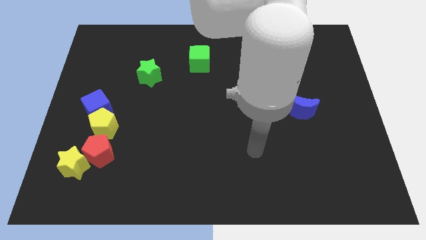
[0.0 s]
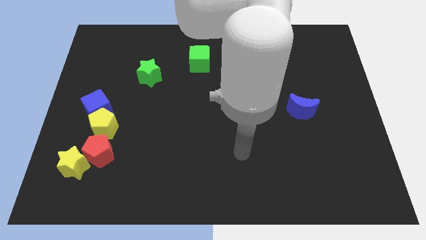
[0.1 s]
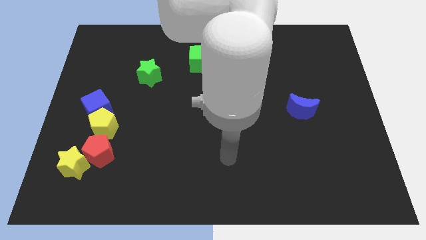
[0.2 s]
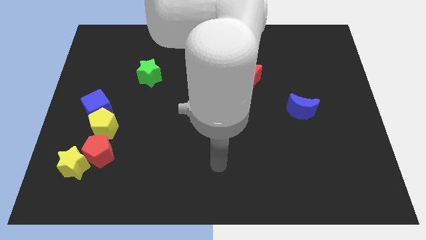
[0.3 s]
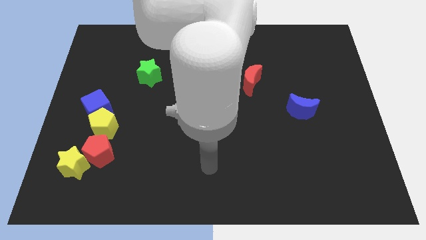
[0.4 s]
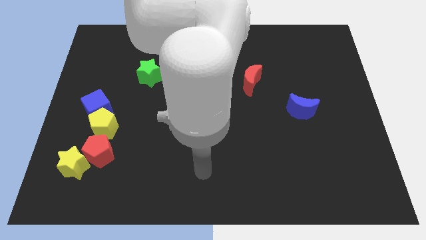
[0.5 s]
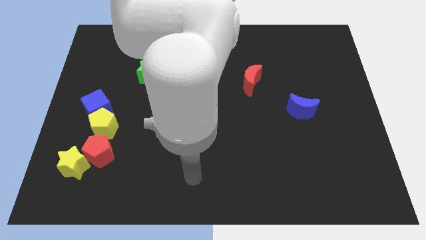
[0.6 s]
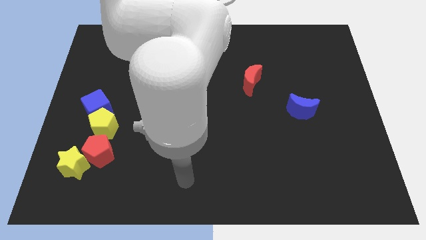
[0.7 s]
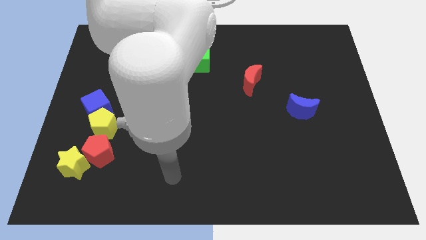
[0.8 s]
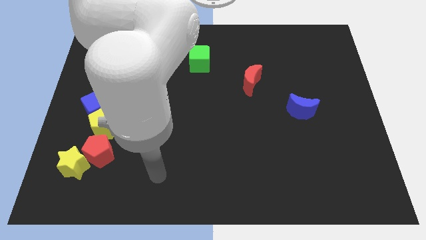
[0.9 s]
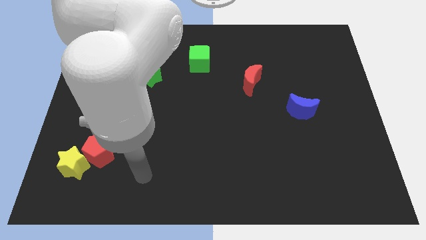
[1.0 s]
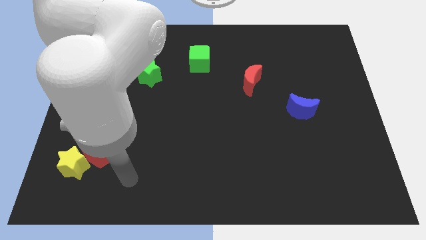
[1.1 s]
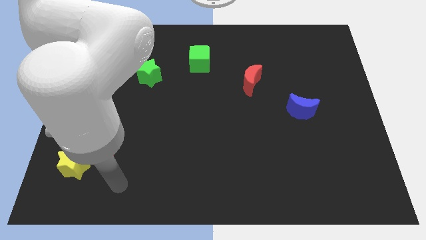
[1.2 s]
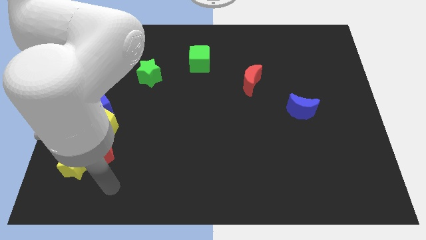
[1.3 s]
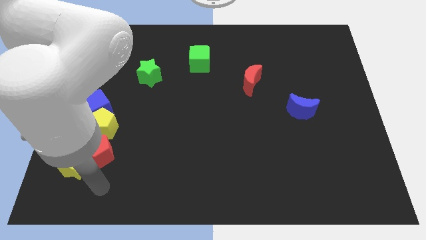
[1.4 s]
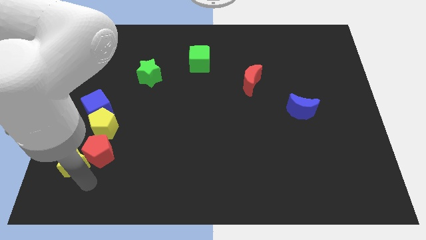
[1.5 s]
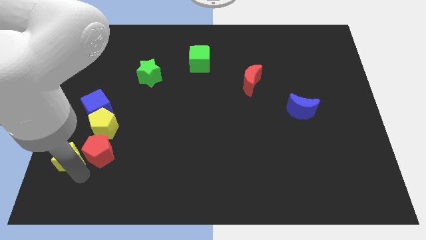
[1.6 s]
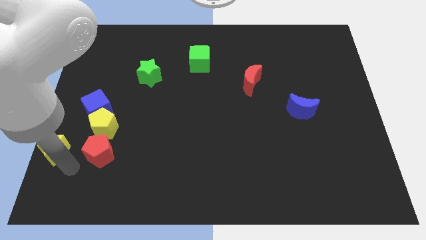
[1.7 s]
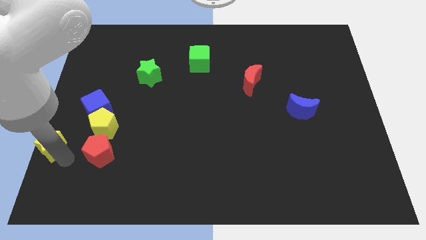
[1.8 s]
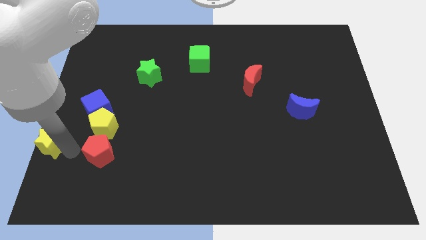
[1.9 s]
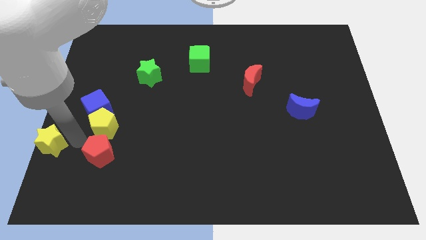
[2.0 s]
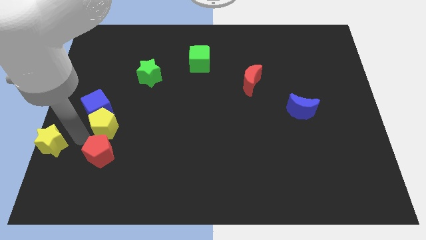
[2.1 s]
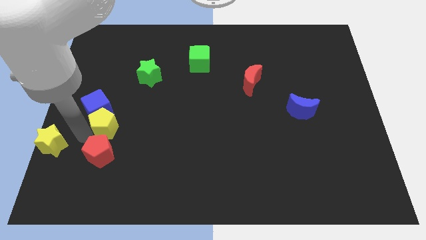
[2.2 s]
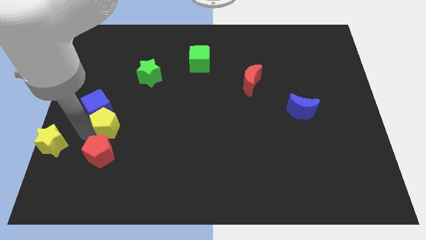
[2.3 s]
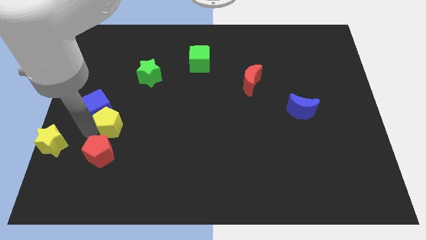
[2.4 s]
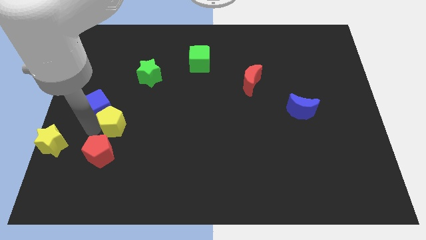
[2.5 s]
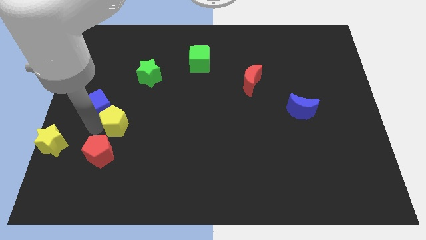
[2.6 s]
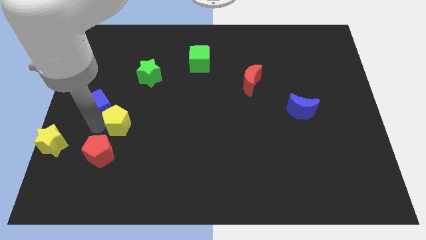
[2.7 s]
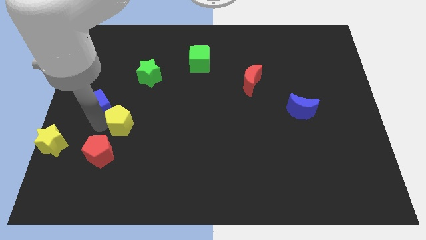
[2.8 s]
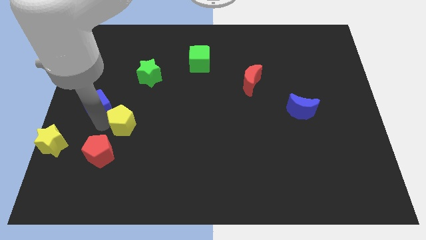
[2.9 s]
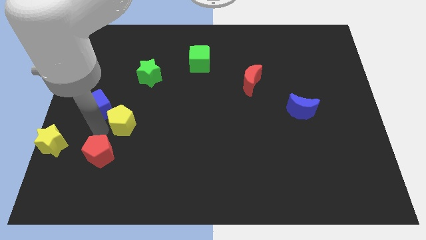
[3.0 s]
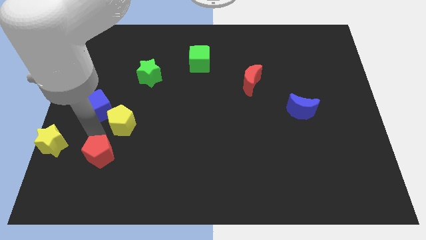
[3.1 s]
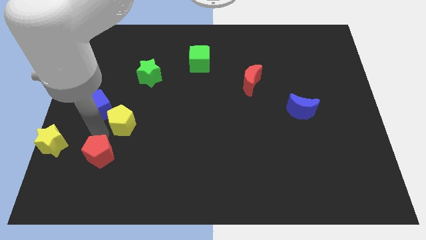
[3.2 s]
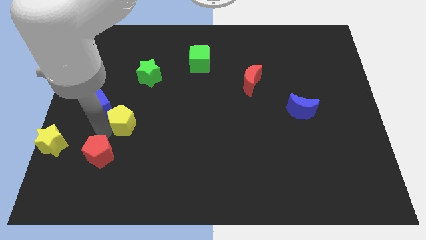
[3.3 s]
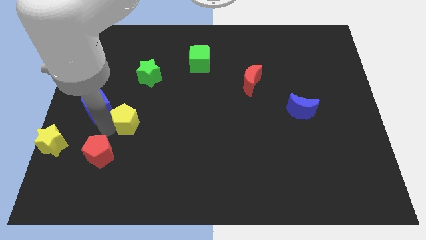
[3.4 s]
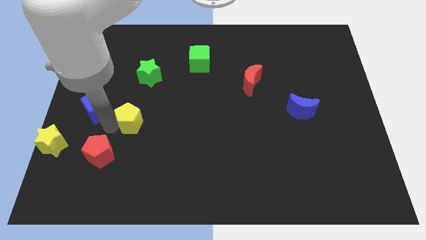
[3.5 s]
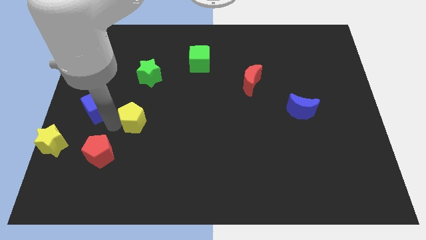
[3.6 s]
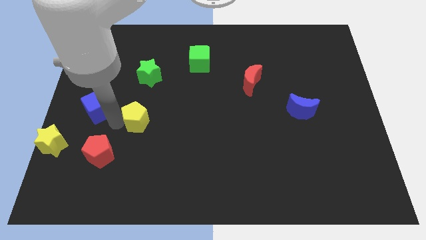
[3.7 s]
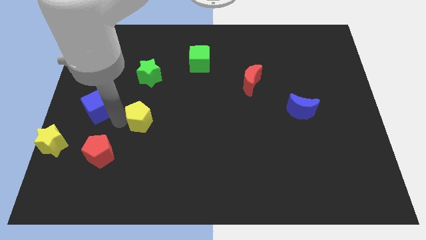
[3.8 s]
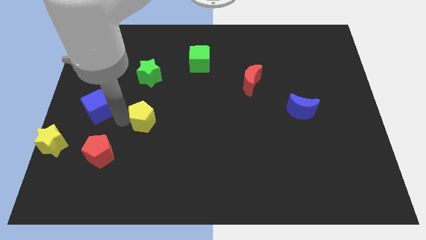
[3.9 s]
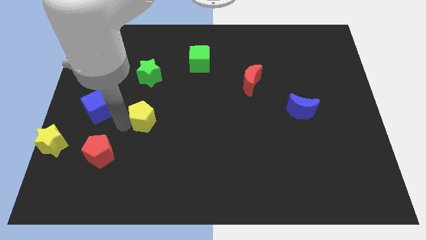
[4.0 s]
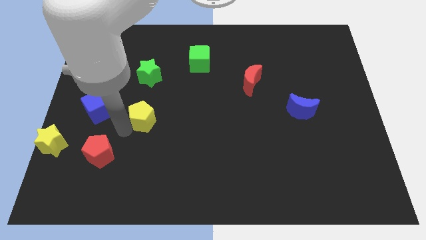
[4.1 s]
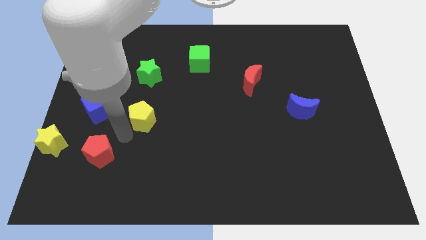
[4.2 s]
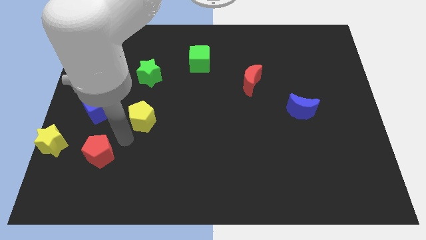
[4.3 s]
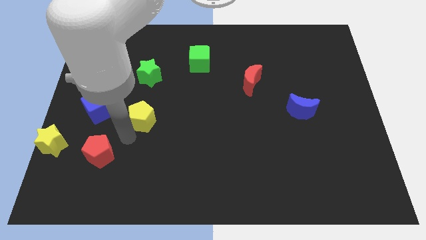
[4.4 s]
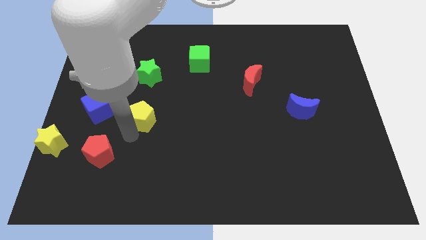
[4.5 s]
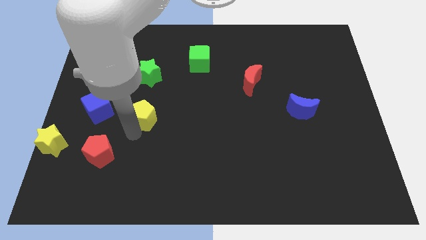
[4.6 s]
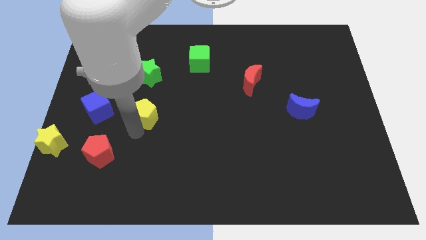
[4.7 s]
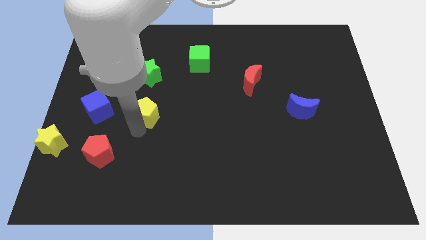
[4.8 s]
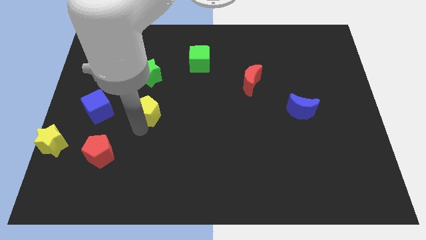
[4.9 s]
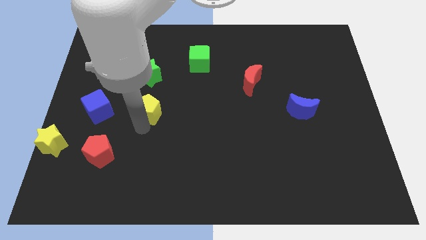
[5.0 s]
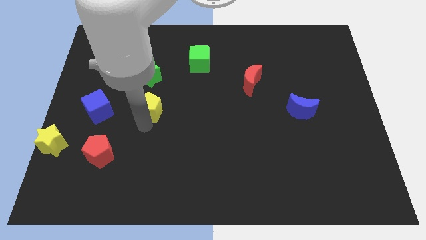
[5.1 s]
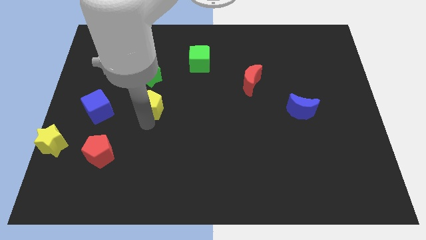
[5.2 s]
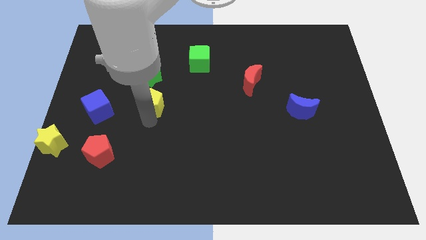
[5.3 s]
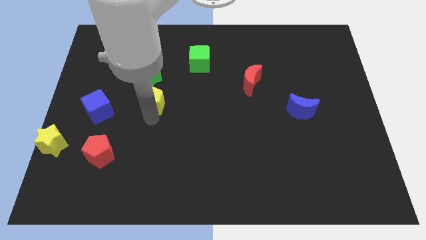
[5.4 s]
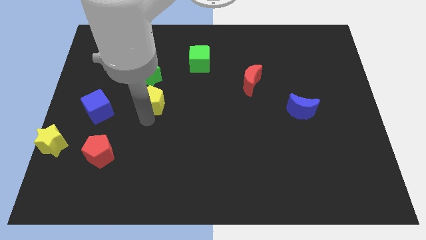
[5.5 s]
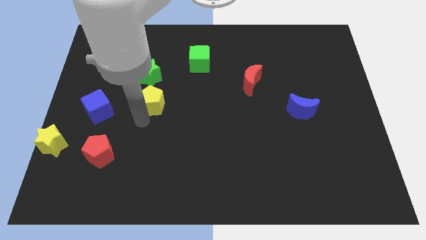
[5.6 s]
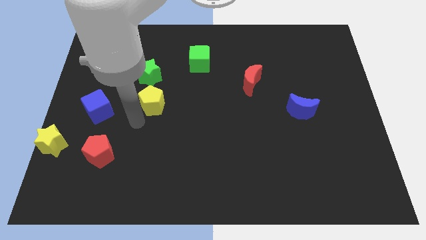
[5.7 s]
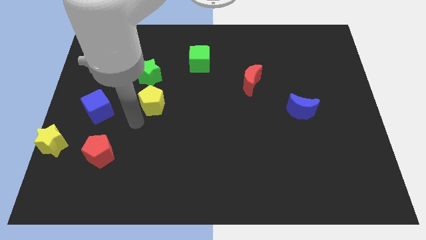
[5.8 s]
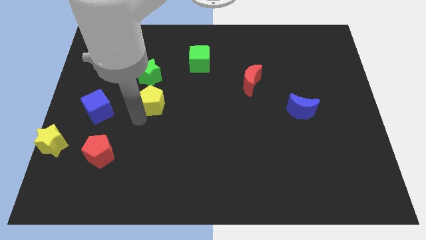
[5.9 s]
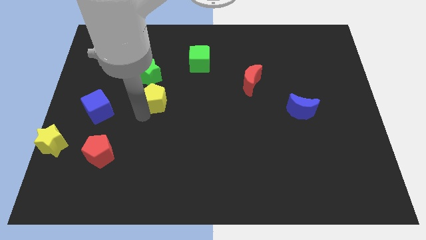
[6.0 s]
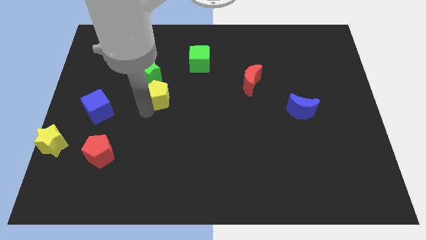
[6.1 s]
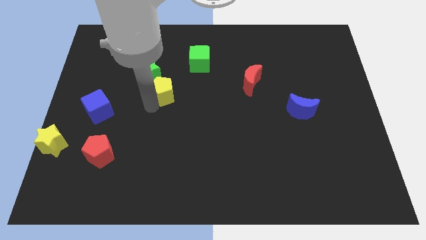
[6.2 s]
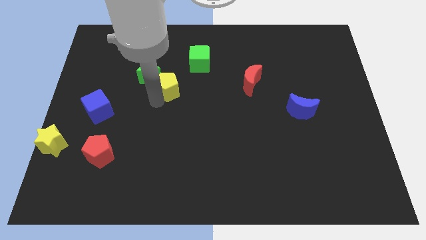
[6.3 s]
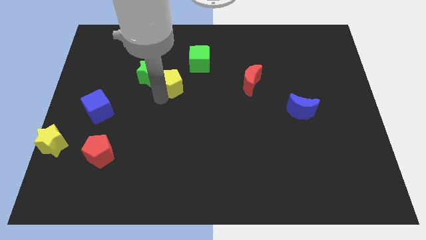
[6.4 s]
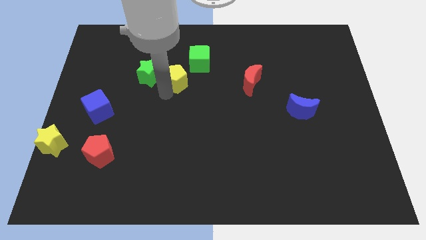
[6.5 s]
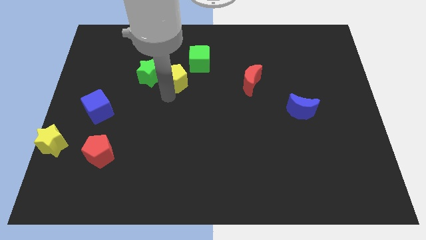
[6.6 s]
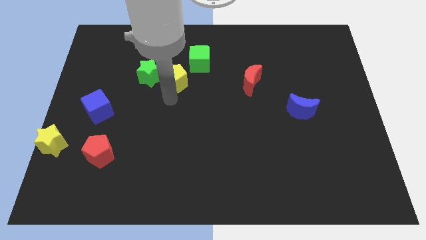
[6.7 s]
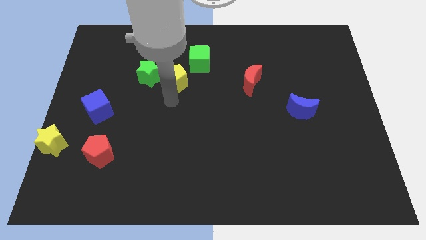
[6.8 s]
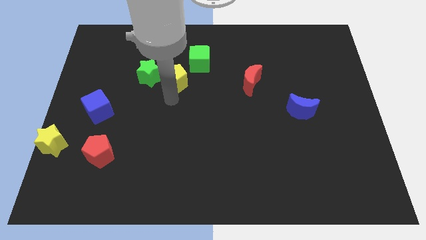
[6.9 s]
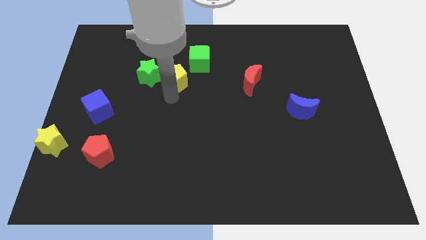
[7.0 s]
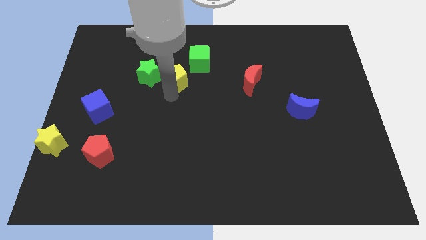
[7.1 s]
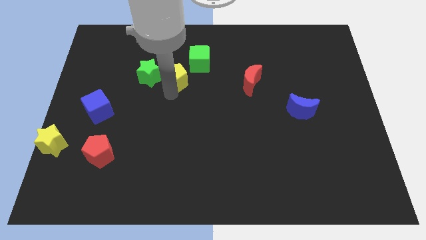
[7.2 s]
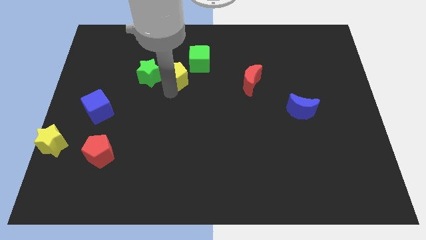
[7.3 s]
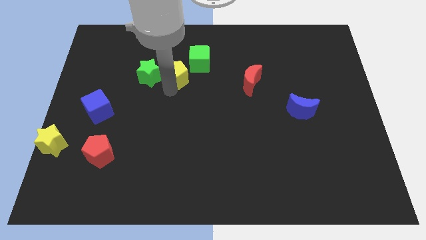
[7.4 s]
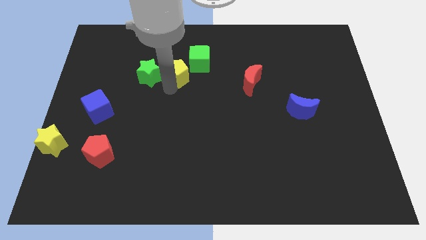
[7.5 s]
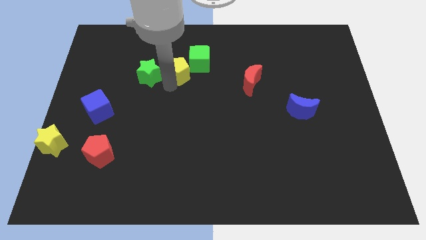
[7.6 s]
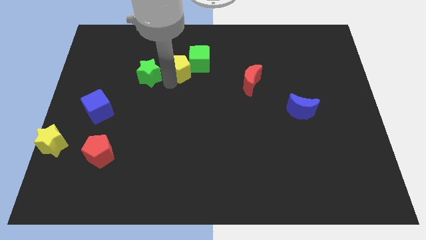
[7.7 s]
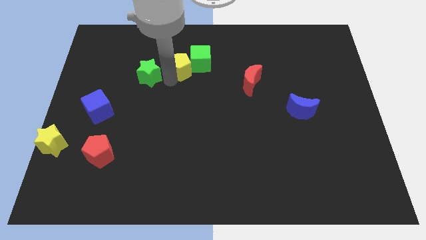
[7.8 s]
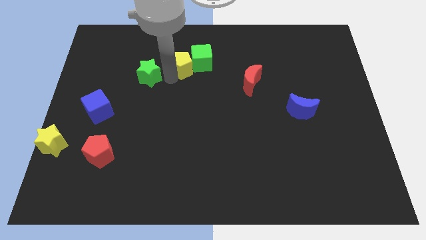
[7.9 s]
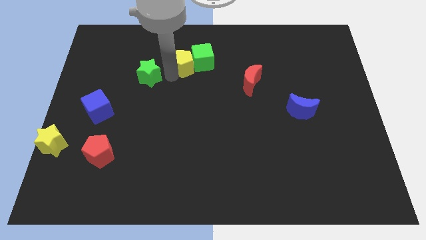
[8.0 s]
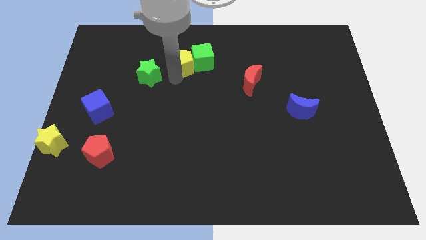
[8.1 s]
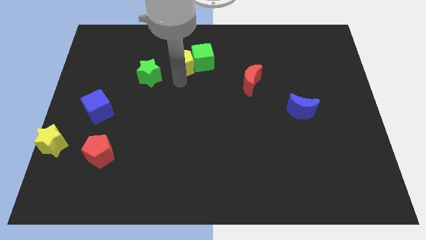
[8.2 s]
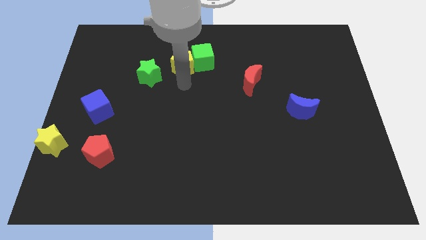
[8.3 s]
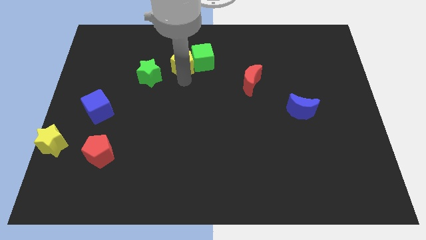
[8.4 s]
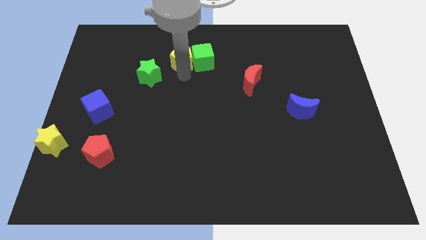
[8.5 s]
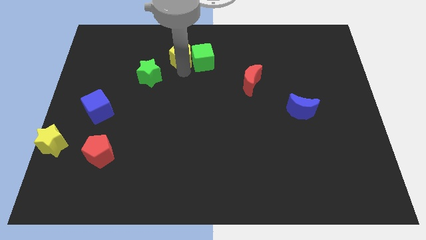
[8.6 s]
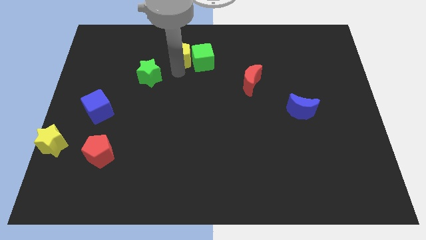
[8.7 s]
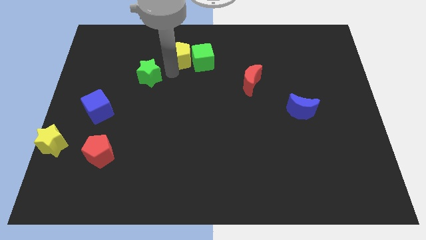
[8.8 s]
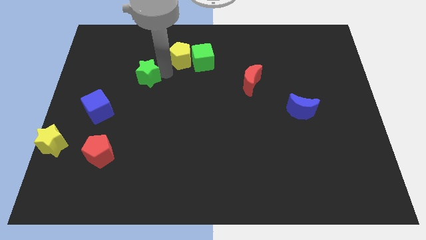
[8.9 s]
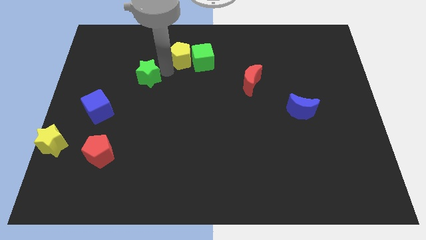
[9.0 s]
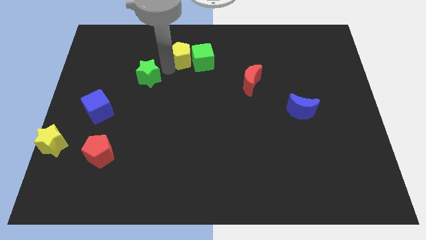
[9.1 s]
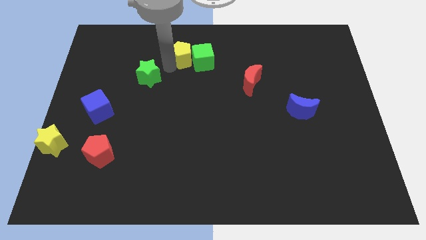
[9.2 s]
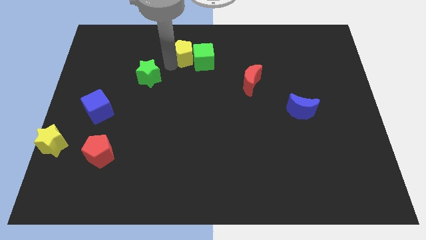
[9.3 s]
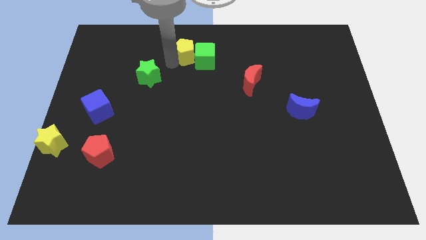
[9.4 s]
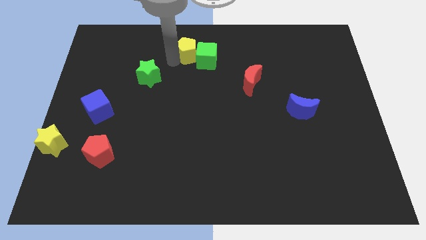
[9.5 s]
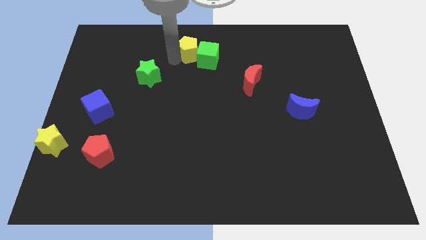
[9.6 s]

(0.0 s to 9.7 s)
slide the yellow pentagon to the top side
